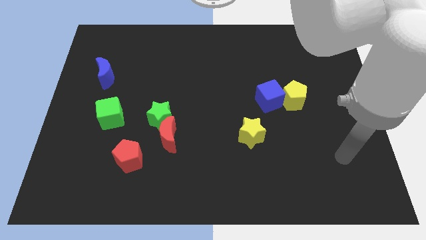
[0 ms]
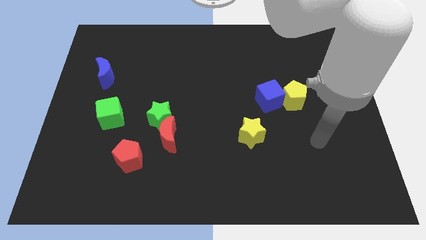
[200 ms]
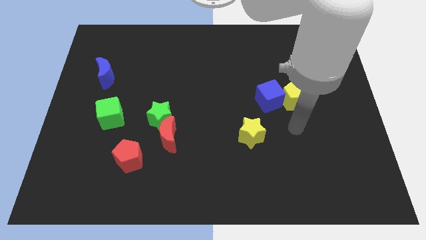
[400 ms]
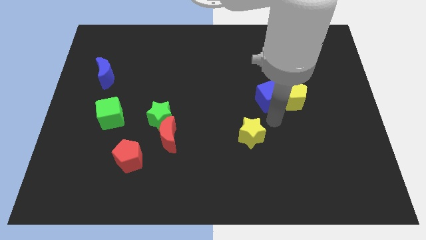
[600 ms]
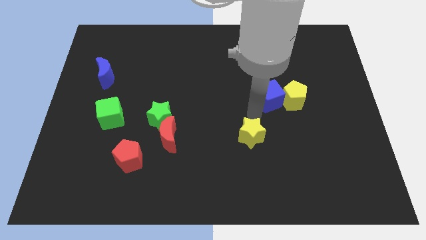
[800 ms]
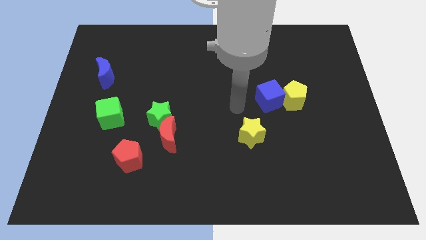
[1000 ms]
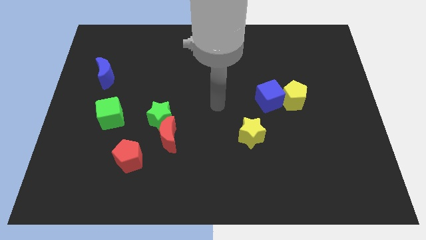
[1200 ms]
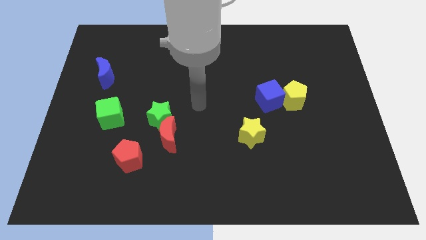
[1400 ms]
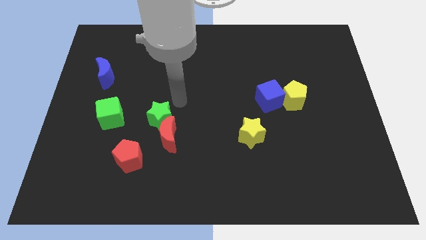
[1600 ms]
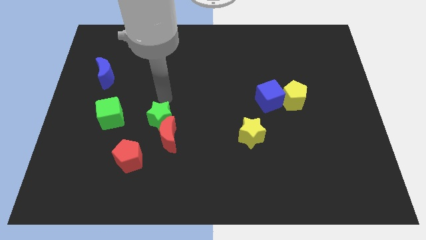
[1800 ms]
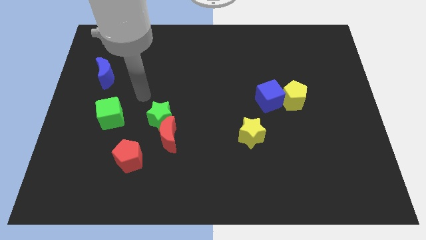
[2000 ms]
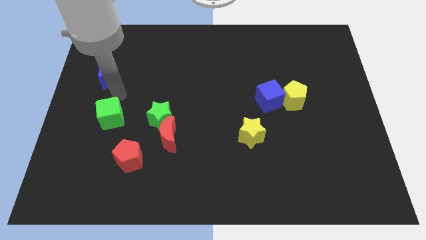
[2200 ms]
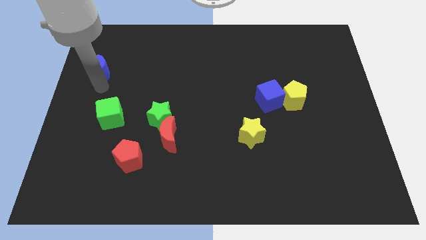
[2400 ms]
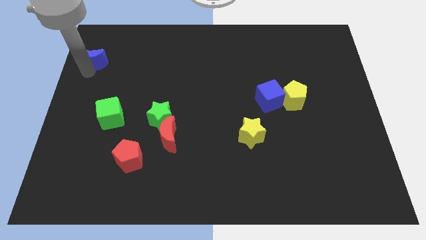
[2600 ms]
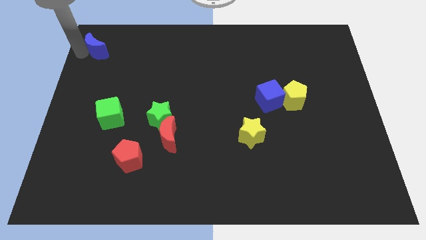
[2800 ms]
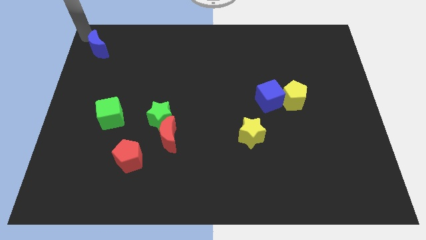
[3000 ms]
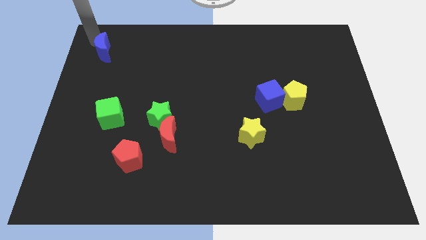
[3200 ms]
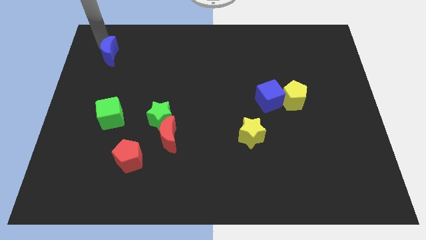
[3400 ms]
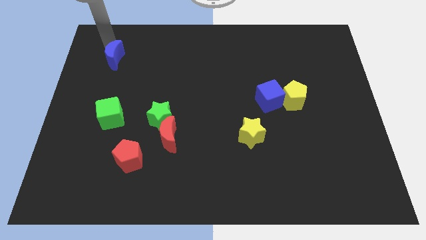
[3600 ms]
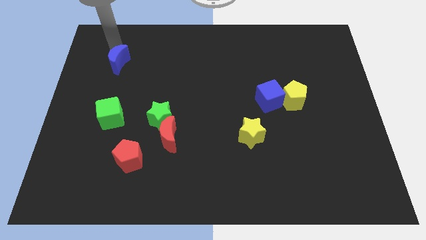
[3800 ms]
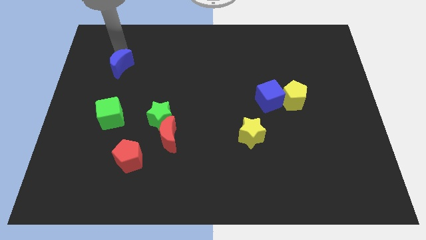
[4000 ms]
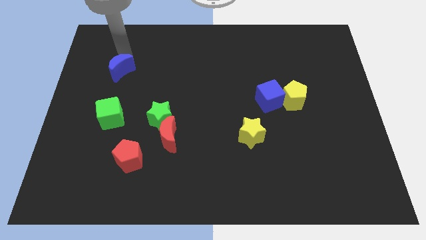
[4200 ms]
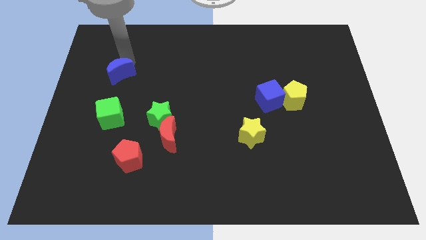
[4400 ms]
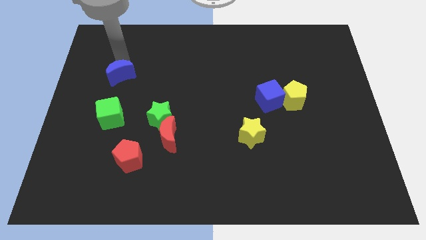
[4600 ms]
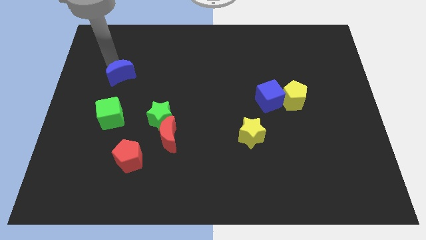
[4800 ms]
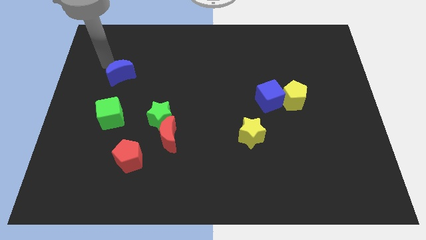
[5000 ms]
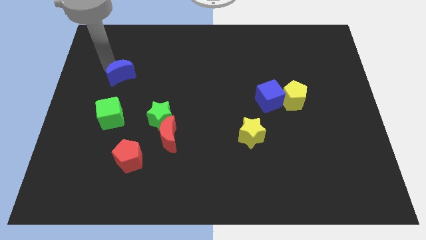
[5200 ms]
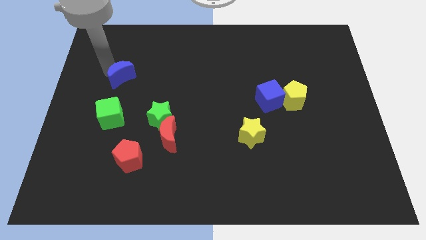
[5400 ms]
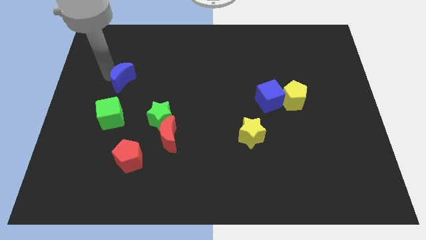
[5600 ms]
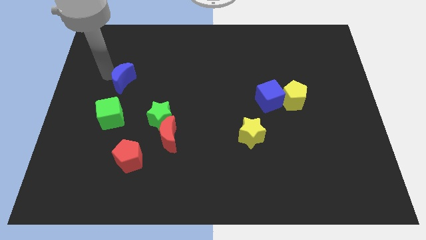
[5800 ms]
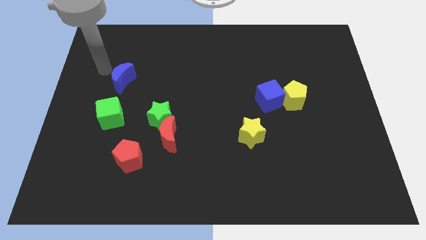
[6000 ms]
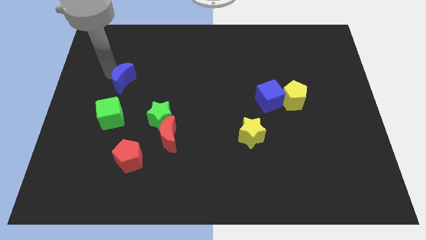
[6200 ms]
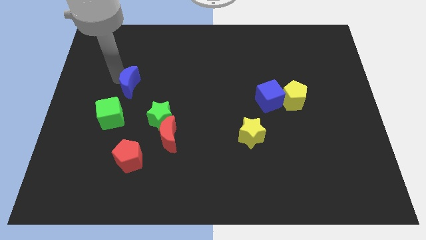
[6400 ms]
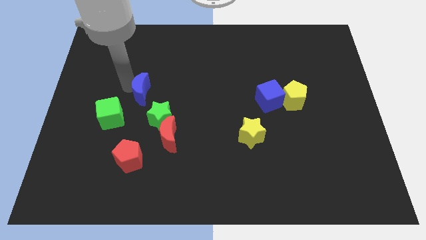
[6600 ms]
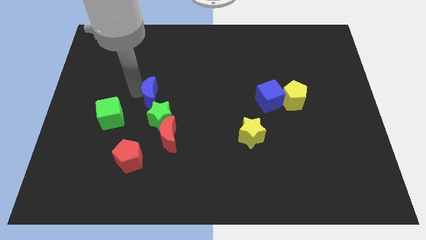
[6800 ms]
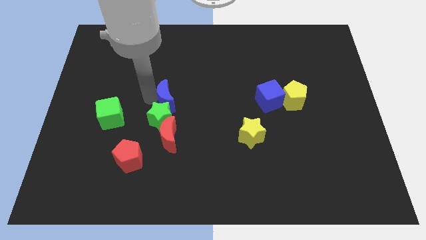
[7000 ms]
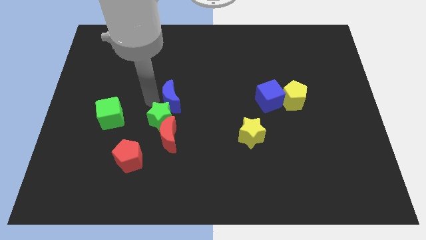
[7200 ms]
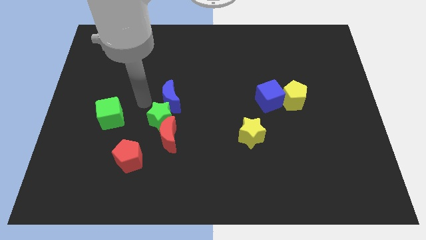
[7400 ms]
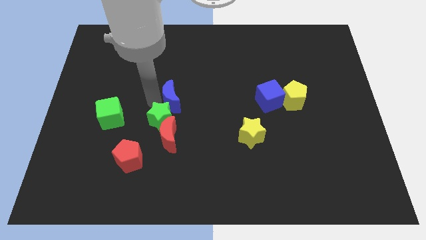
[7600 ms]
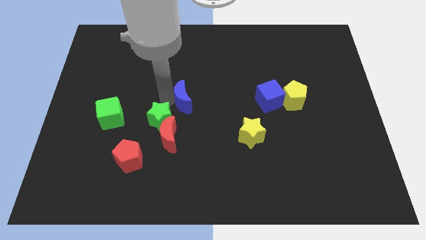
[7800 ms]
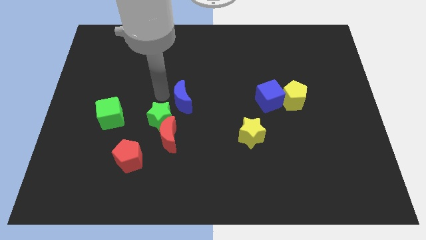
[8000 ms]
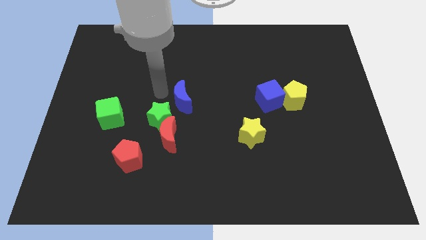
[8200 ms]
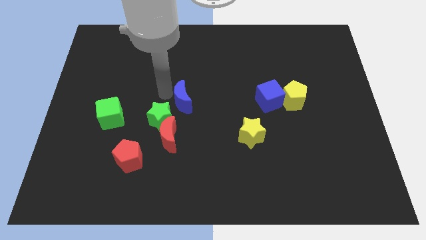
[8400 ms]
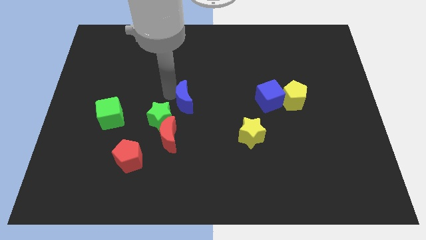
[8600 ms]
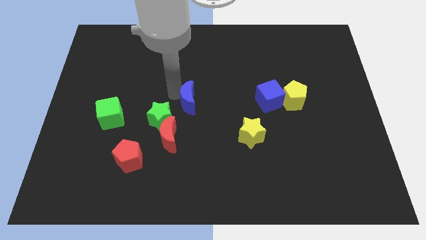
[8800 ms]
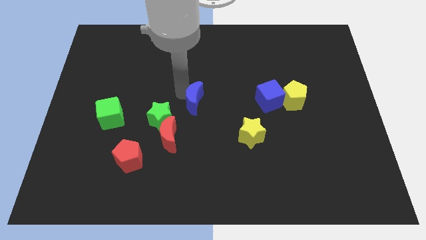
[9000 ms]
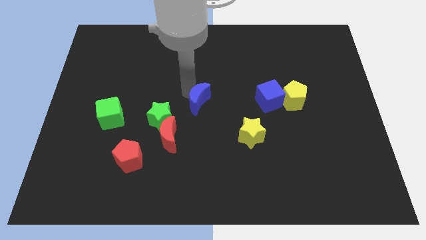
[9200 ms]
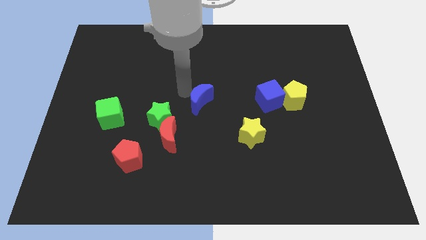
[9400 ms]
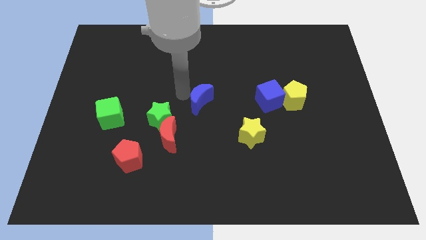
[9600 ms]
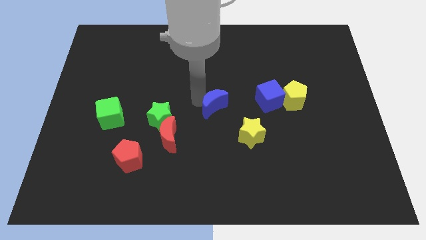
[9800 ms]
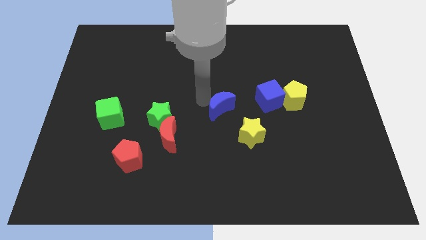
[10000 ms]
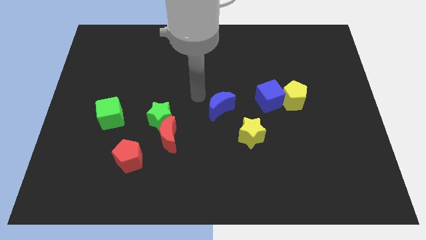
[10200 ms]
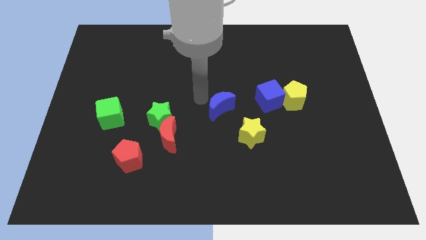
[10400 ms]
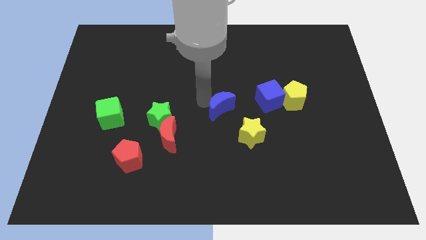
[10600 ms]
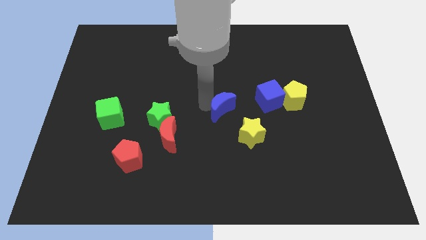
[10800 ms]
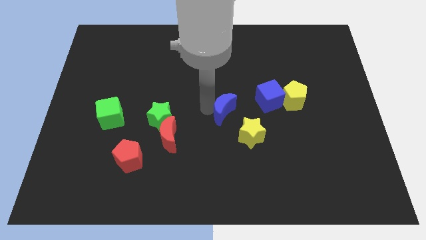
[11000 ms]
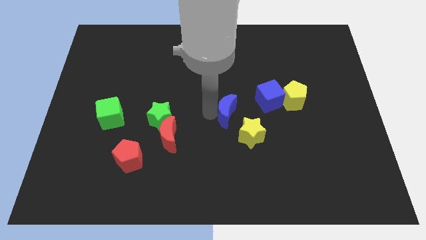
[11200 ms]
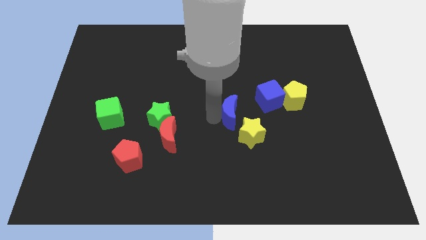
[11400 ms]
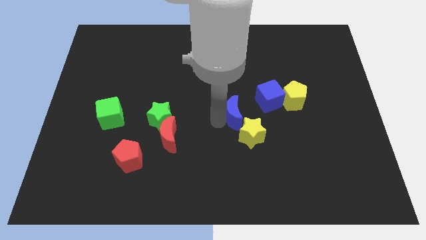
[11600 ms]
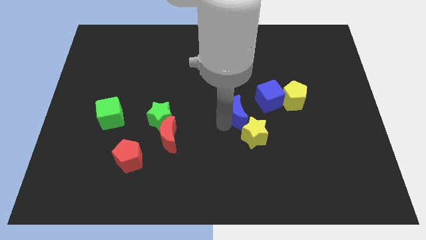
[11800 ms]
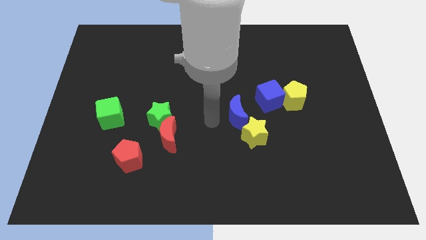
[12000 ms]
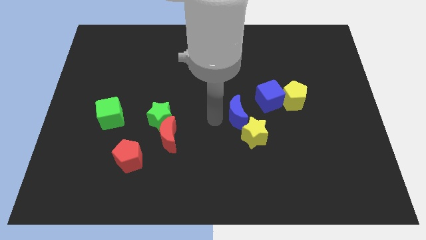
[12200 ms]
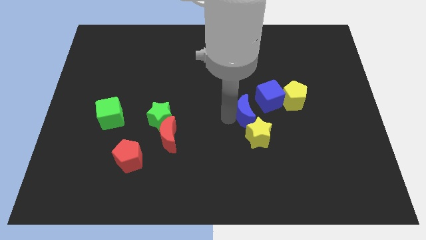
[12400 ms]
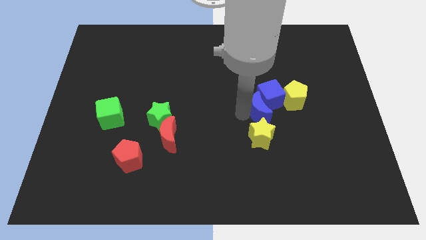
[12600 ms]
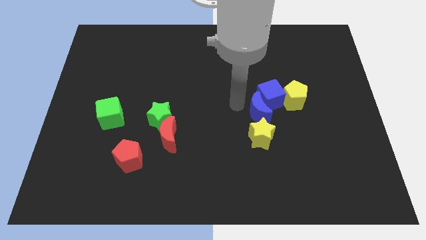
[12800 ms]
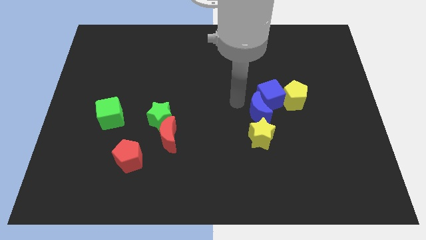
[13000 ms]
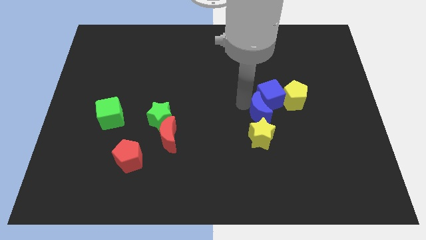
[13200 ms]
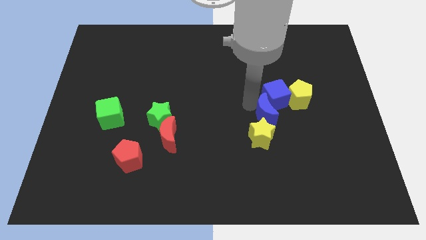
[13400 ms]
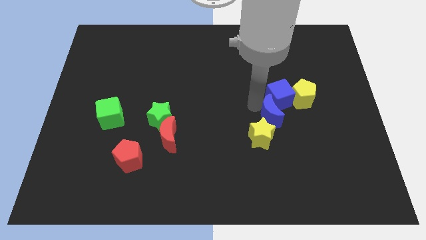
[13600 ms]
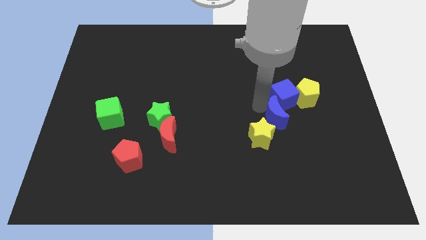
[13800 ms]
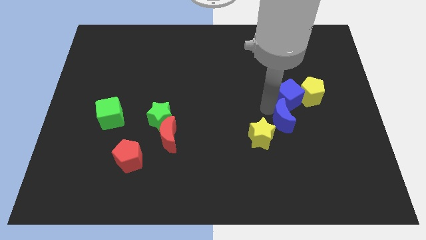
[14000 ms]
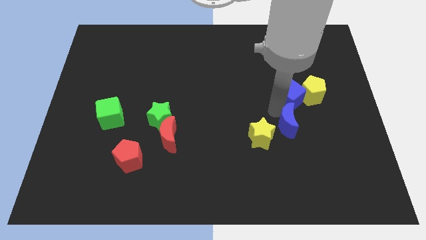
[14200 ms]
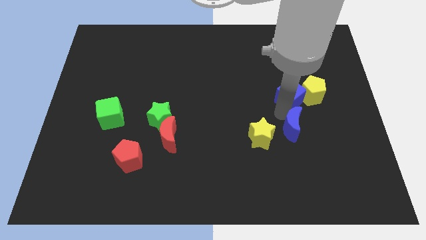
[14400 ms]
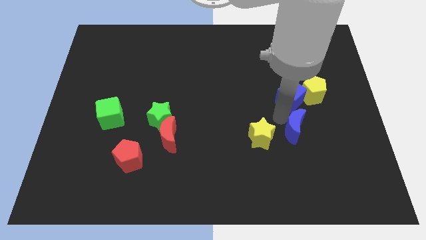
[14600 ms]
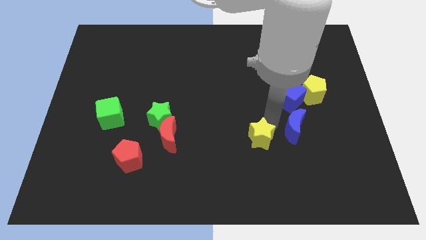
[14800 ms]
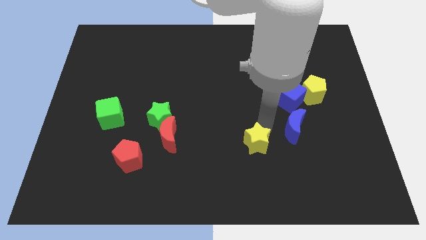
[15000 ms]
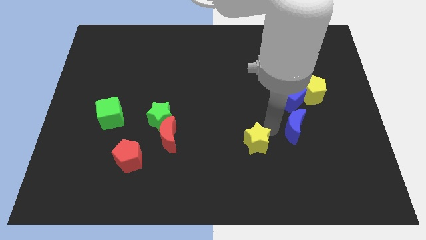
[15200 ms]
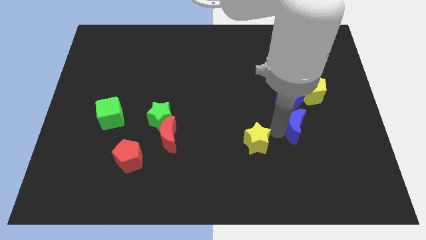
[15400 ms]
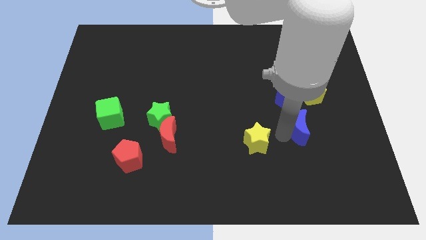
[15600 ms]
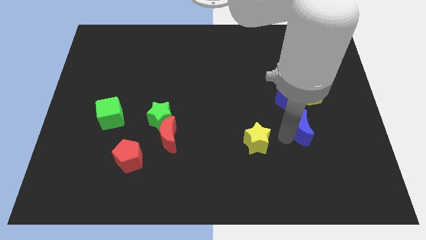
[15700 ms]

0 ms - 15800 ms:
slide the blue moon below the yellow pentagon
